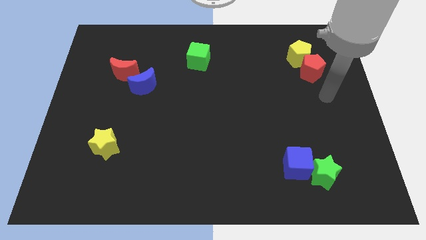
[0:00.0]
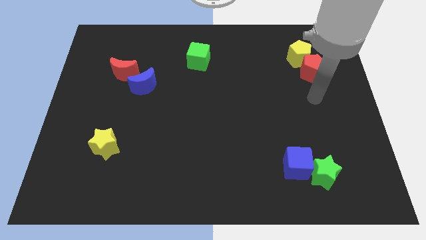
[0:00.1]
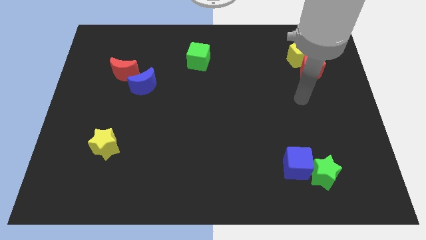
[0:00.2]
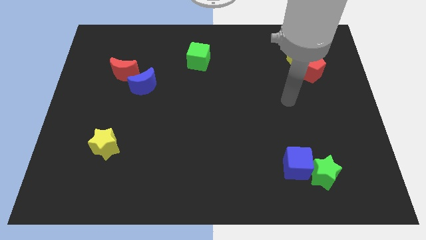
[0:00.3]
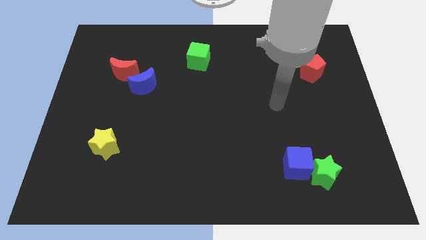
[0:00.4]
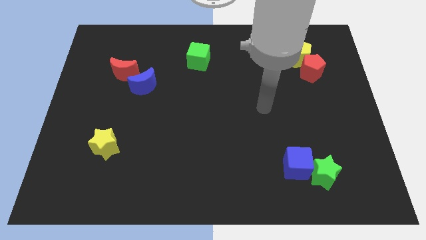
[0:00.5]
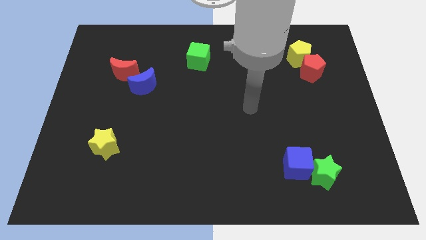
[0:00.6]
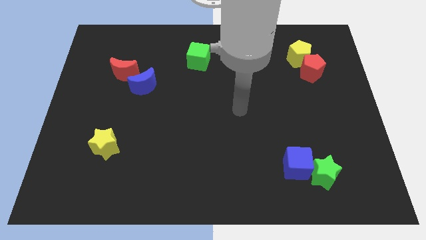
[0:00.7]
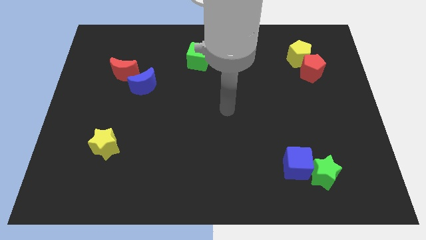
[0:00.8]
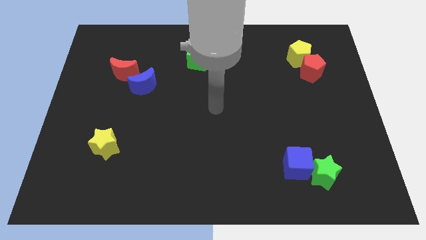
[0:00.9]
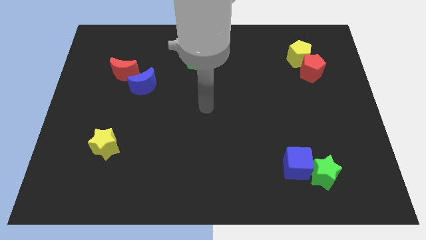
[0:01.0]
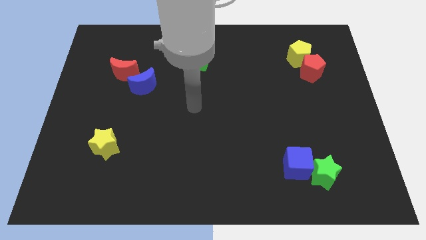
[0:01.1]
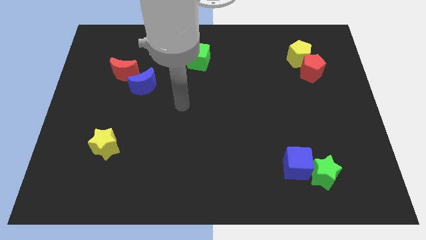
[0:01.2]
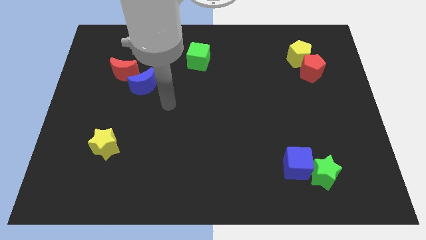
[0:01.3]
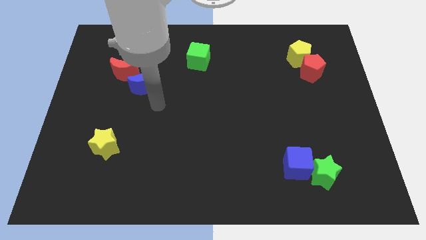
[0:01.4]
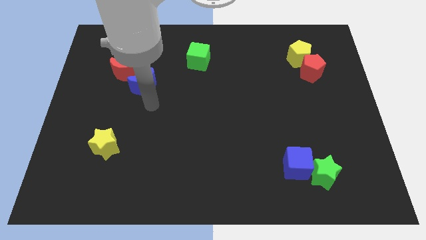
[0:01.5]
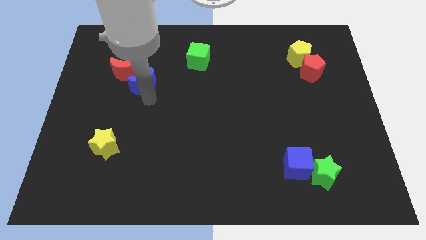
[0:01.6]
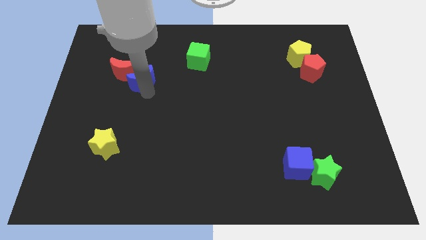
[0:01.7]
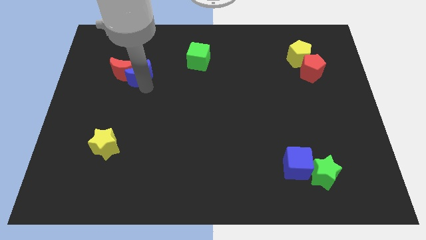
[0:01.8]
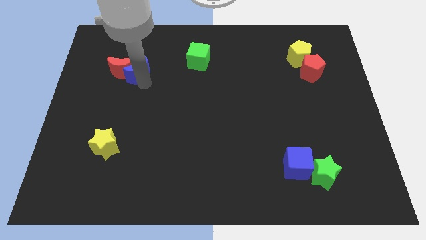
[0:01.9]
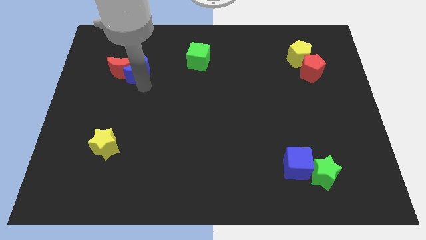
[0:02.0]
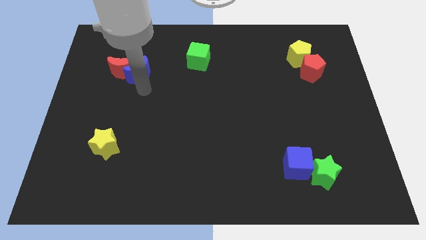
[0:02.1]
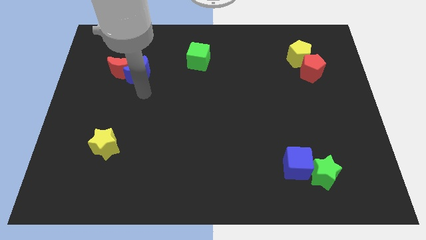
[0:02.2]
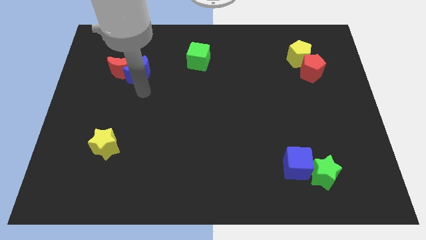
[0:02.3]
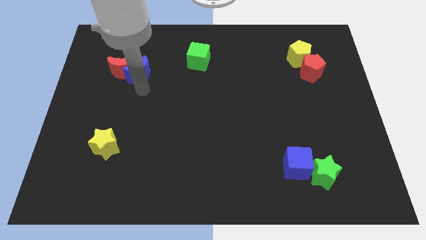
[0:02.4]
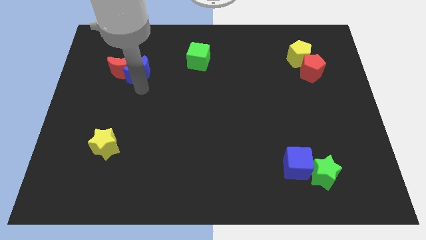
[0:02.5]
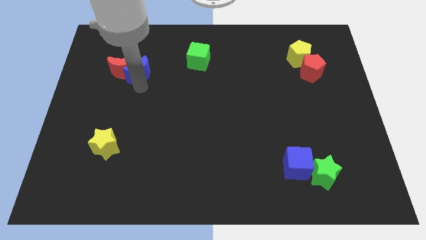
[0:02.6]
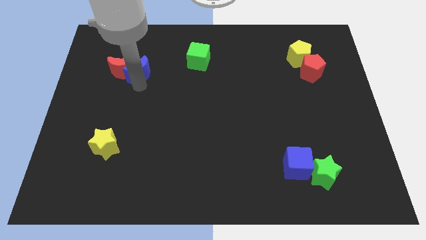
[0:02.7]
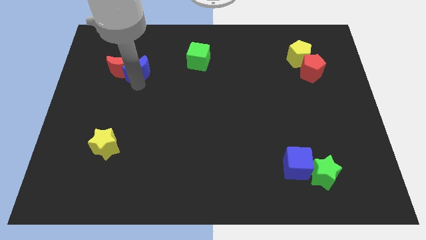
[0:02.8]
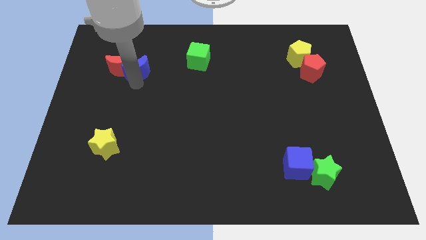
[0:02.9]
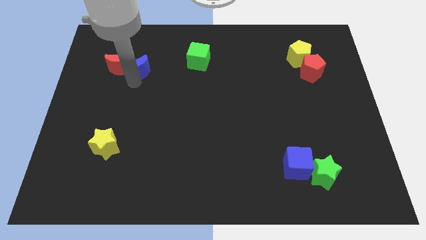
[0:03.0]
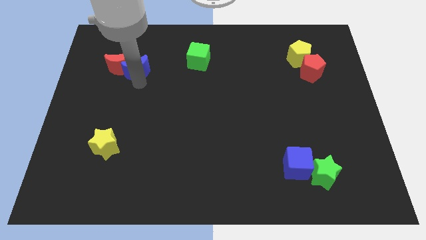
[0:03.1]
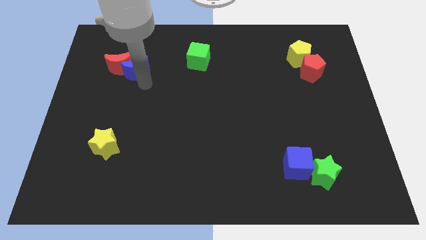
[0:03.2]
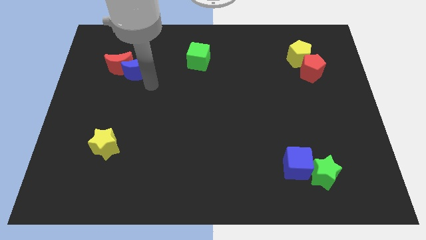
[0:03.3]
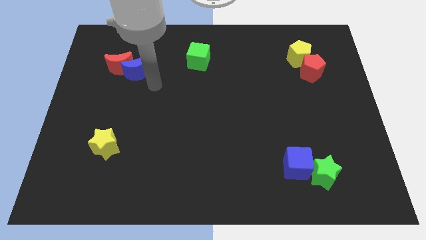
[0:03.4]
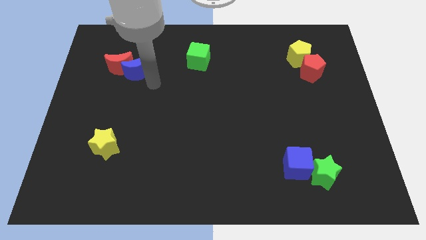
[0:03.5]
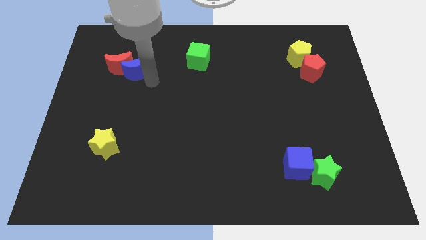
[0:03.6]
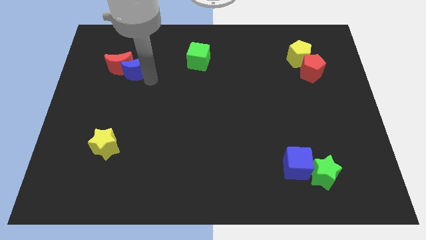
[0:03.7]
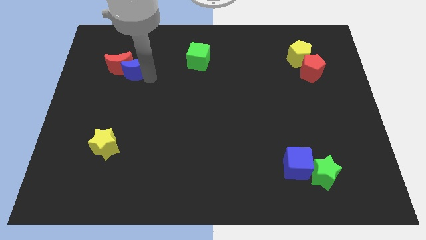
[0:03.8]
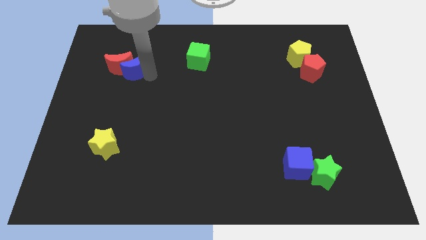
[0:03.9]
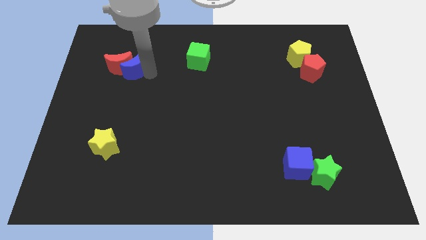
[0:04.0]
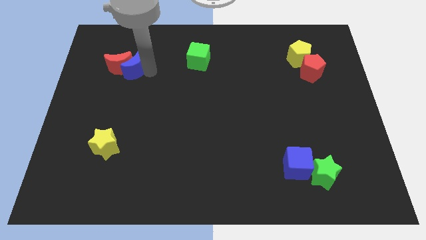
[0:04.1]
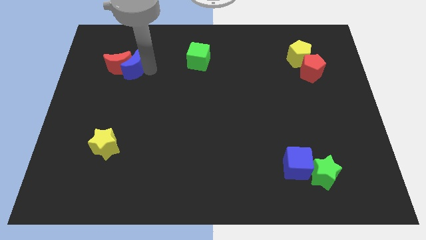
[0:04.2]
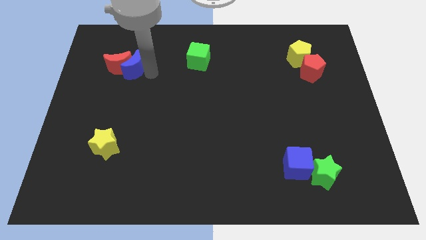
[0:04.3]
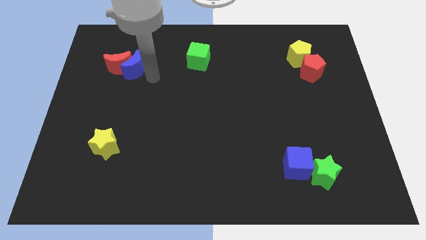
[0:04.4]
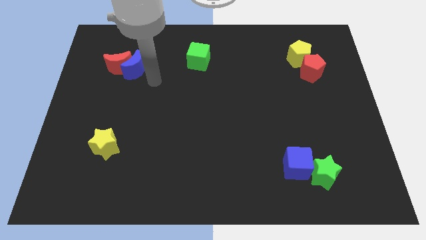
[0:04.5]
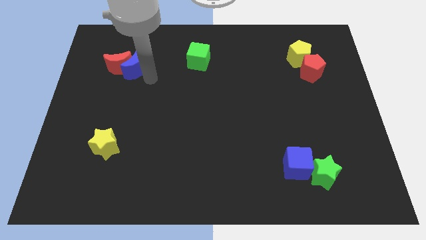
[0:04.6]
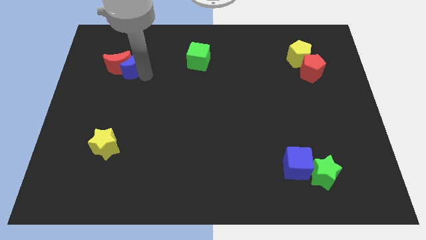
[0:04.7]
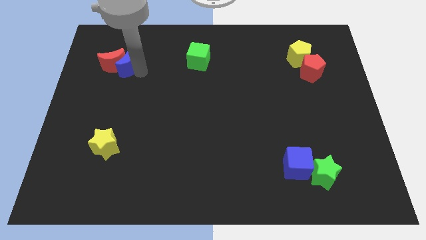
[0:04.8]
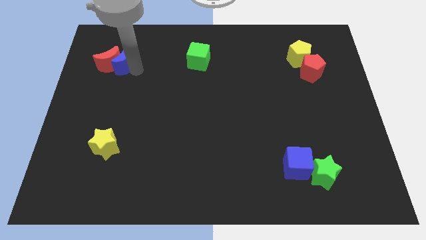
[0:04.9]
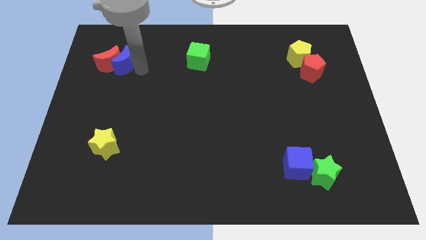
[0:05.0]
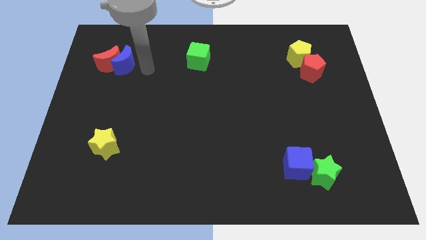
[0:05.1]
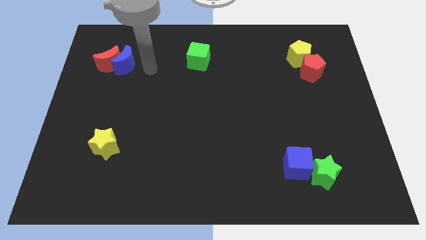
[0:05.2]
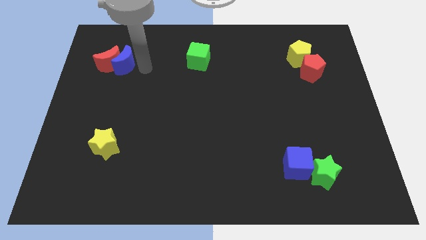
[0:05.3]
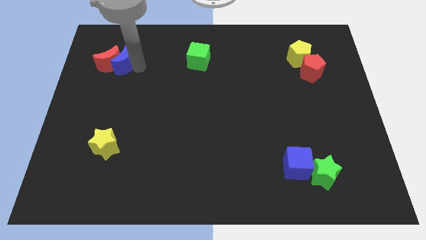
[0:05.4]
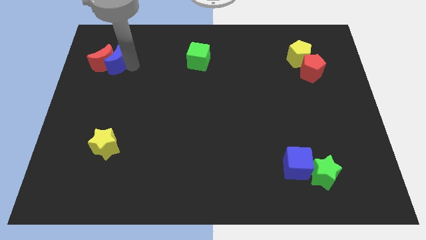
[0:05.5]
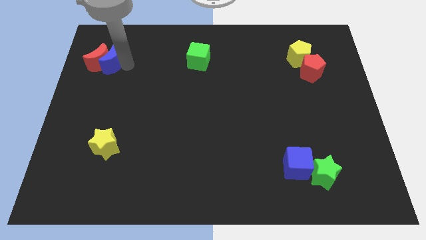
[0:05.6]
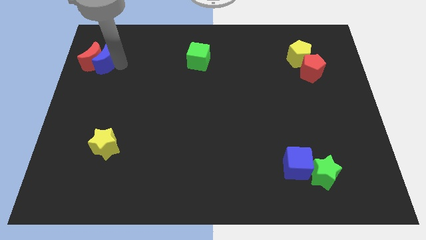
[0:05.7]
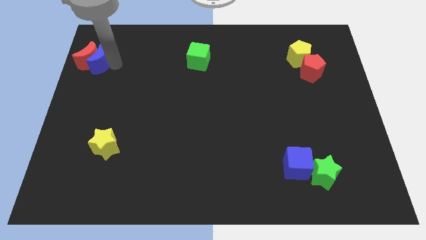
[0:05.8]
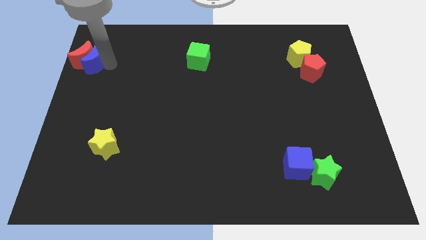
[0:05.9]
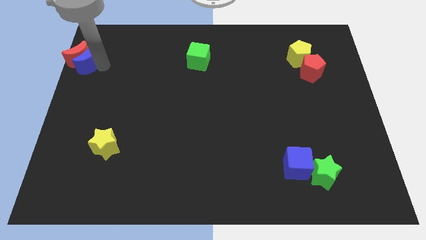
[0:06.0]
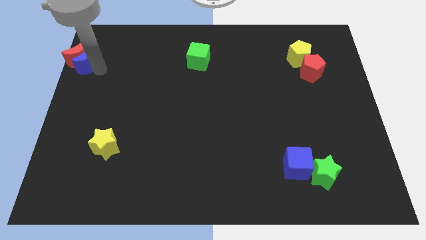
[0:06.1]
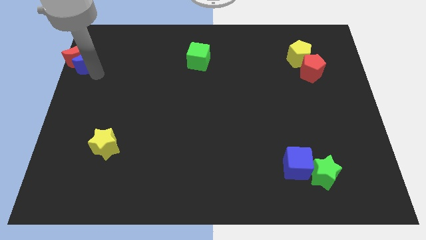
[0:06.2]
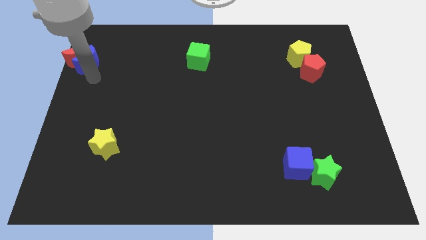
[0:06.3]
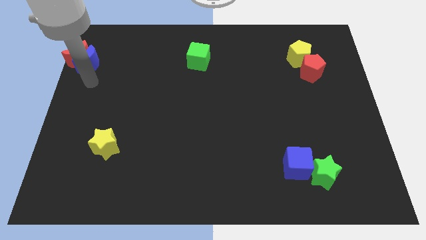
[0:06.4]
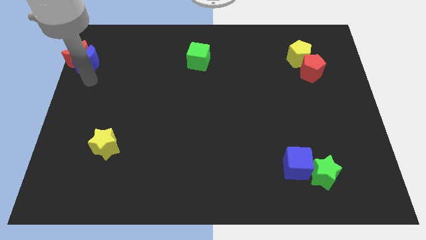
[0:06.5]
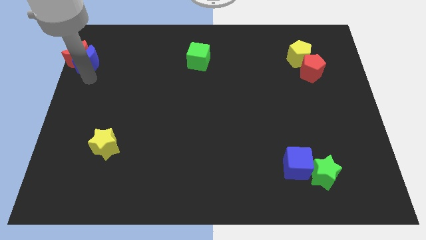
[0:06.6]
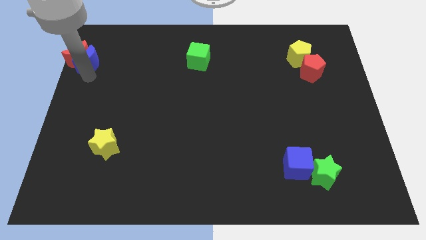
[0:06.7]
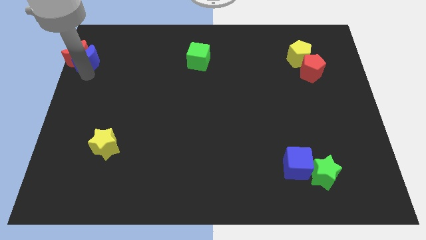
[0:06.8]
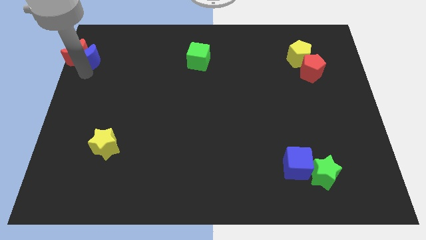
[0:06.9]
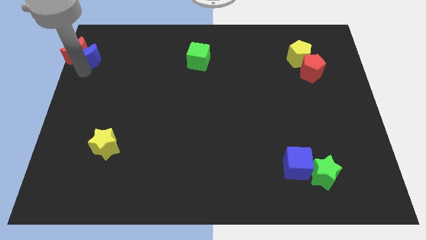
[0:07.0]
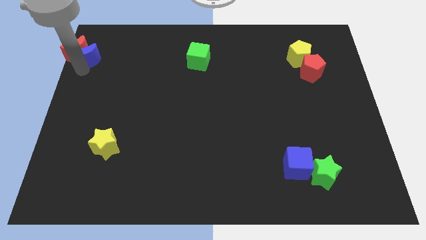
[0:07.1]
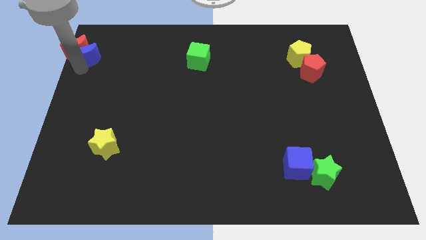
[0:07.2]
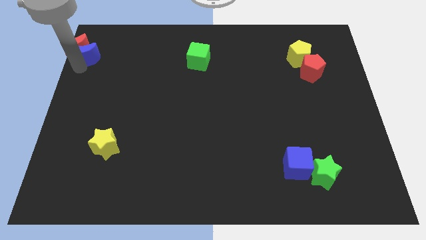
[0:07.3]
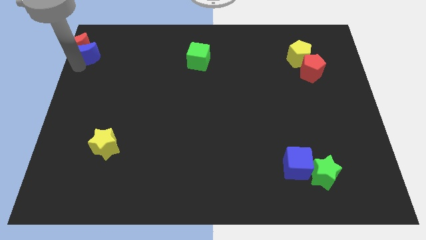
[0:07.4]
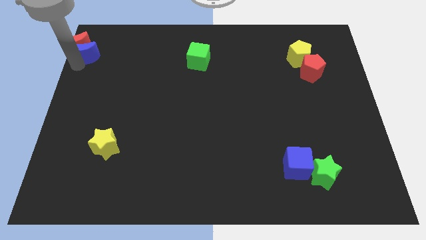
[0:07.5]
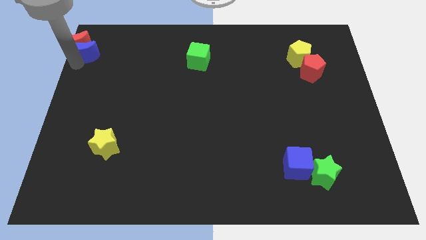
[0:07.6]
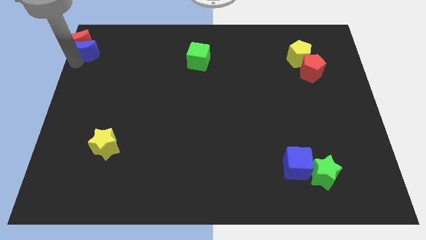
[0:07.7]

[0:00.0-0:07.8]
move the blue moon to the top left of the board
